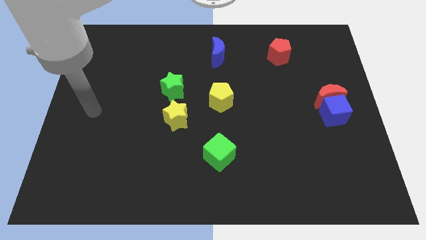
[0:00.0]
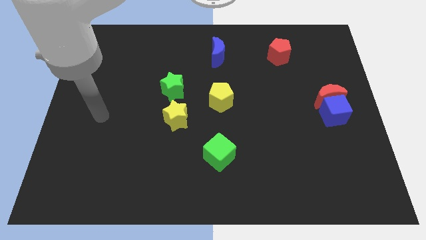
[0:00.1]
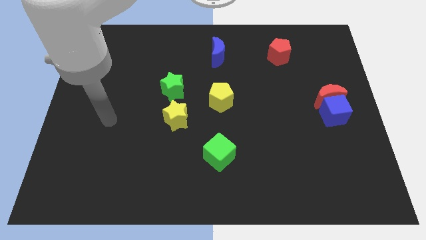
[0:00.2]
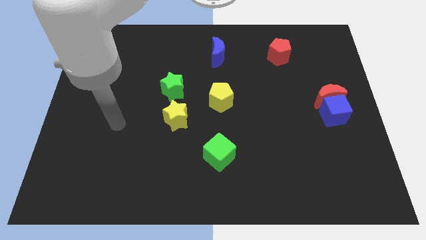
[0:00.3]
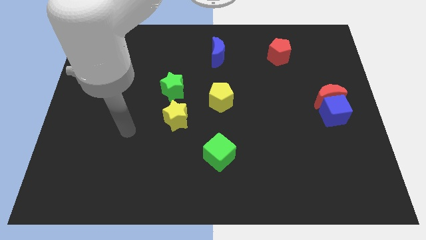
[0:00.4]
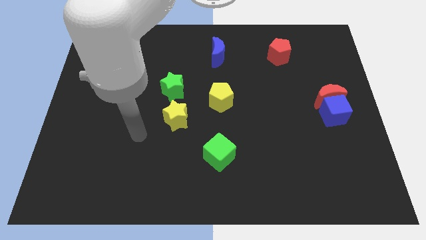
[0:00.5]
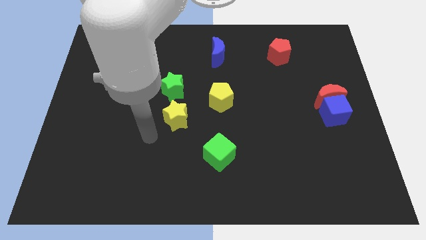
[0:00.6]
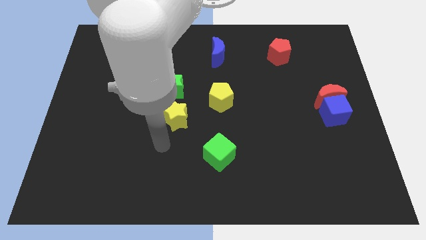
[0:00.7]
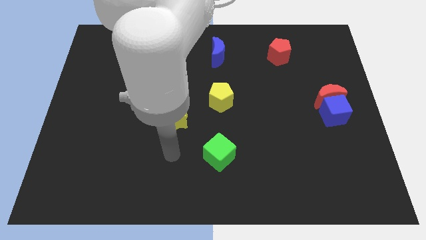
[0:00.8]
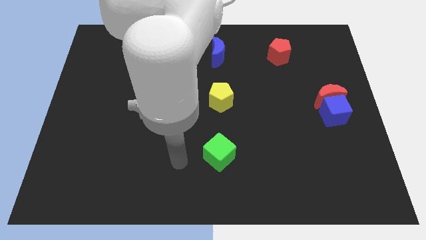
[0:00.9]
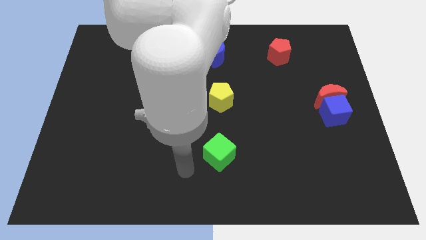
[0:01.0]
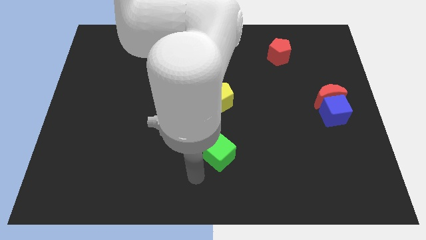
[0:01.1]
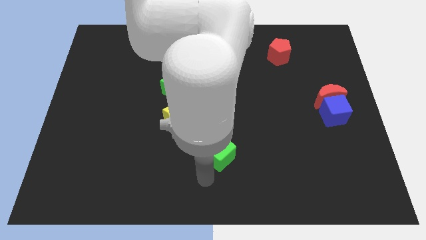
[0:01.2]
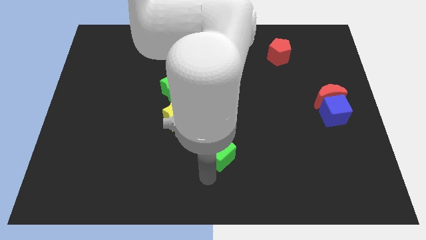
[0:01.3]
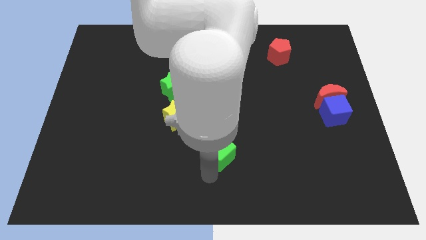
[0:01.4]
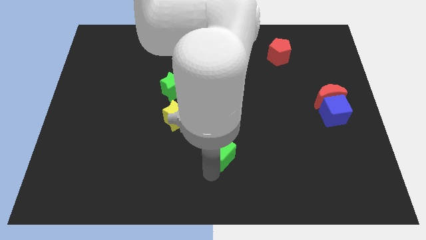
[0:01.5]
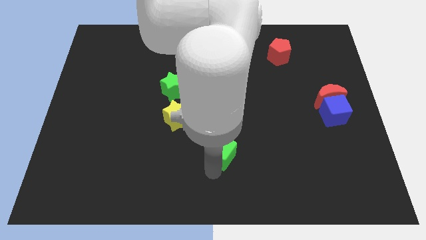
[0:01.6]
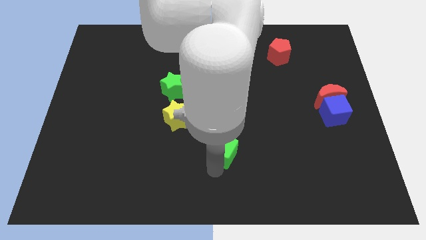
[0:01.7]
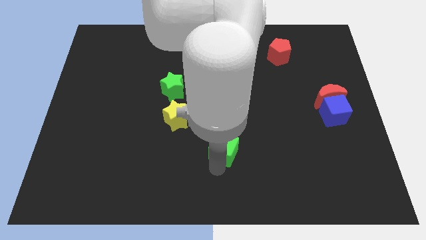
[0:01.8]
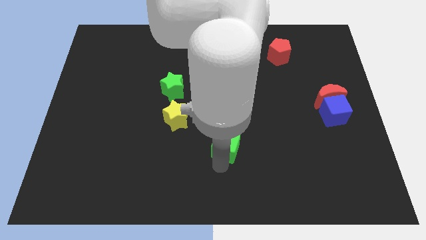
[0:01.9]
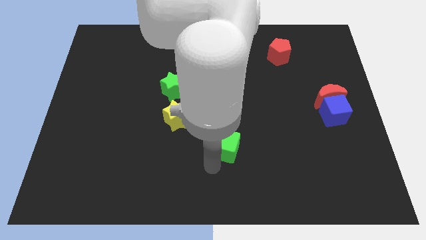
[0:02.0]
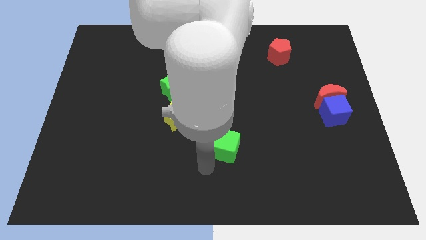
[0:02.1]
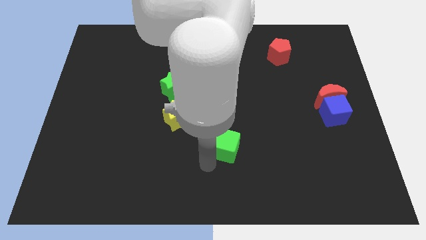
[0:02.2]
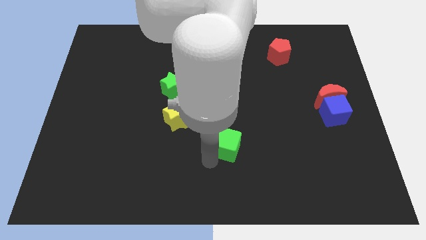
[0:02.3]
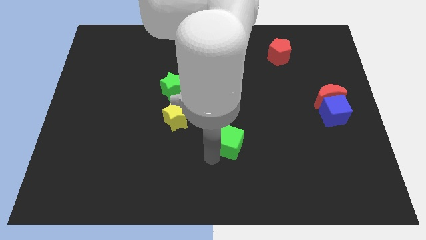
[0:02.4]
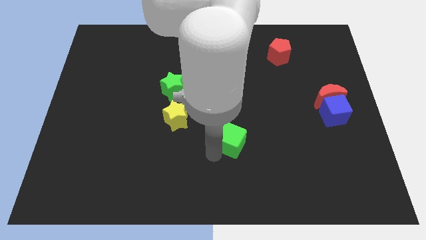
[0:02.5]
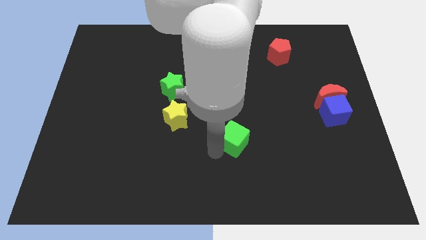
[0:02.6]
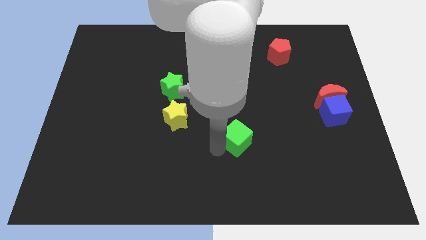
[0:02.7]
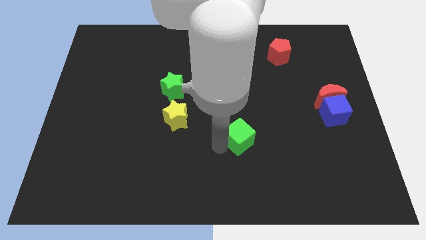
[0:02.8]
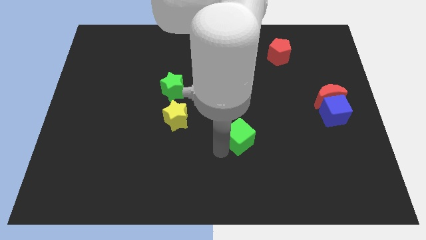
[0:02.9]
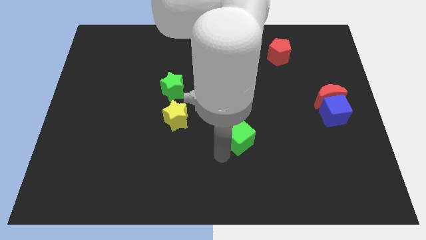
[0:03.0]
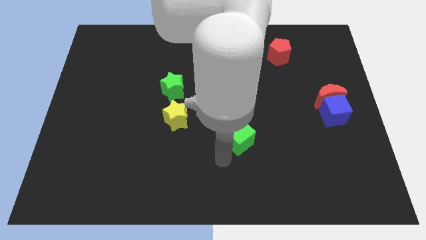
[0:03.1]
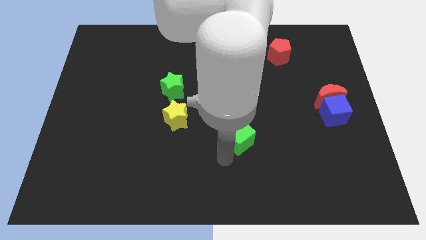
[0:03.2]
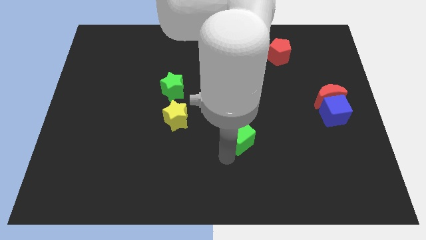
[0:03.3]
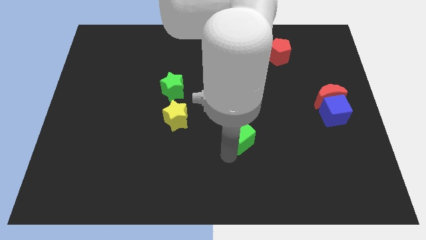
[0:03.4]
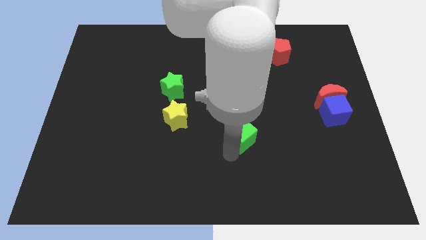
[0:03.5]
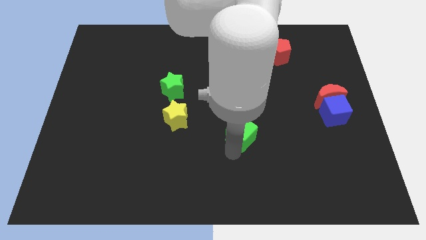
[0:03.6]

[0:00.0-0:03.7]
slide the green cube diagonally upwards and right slightly

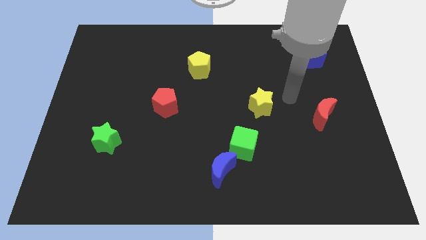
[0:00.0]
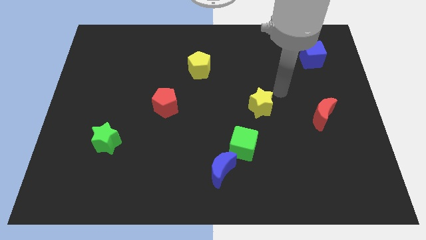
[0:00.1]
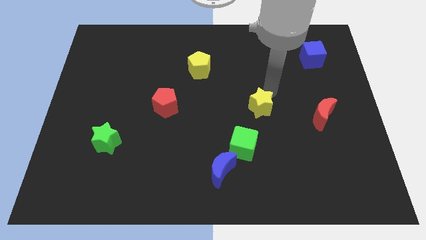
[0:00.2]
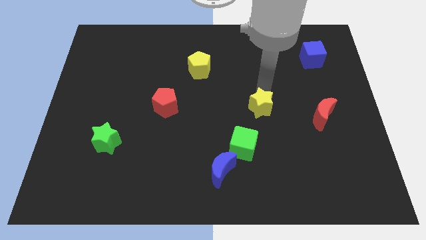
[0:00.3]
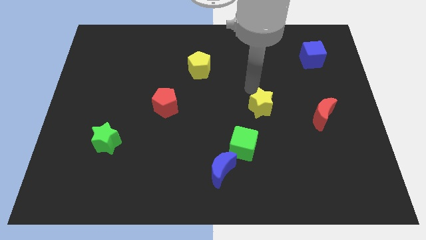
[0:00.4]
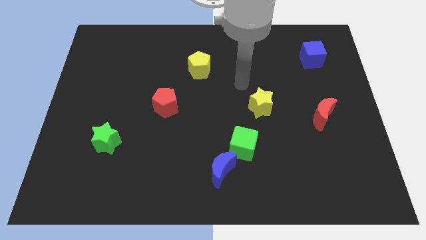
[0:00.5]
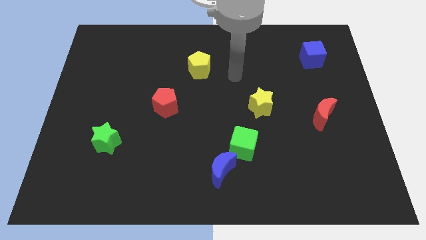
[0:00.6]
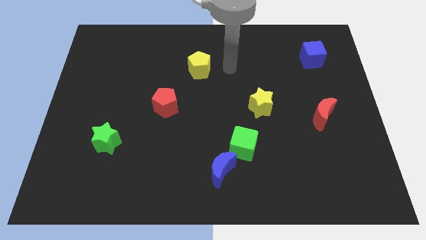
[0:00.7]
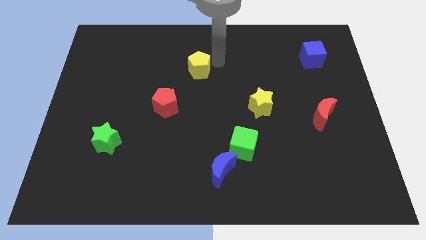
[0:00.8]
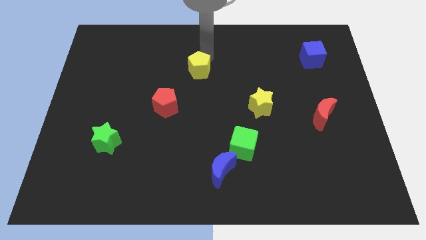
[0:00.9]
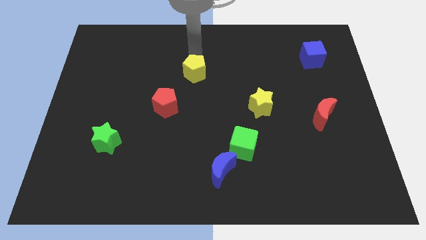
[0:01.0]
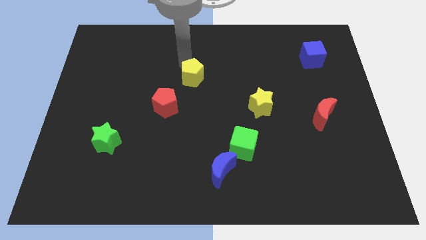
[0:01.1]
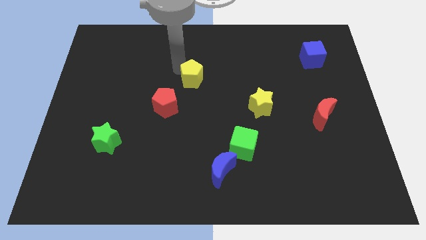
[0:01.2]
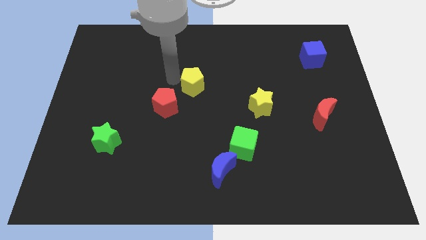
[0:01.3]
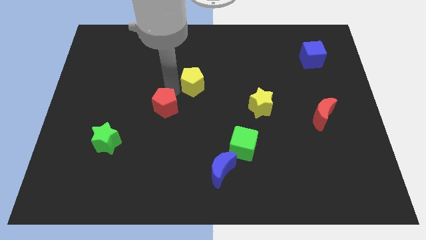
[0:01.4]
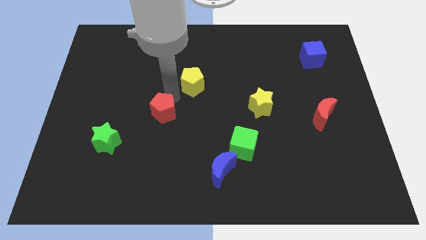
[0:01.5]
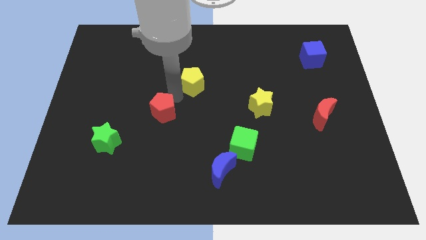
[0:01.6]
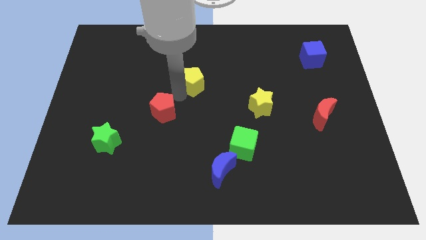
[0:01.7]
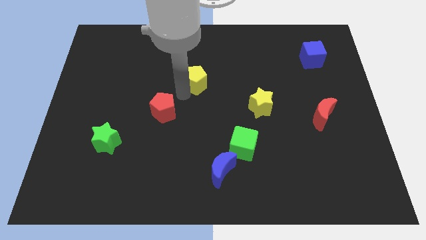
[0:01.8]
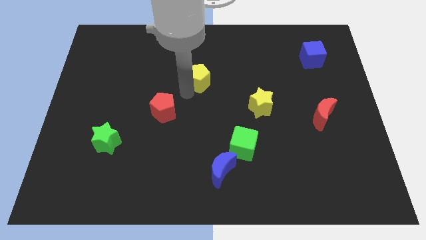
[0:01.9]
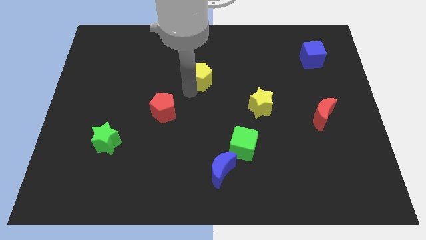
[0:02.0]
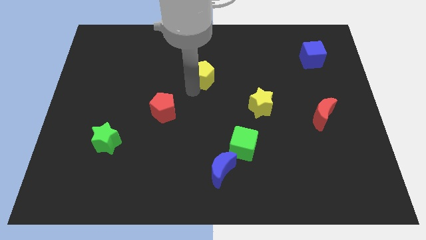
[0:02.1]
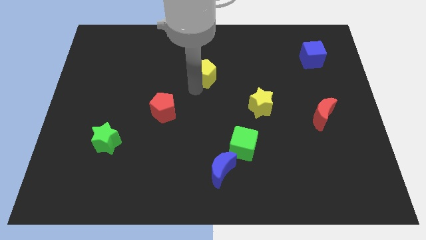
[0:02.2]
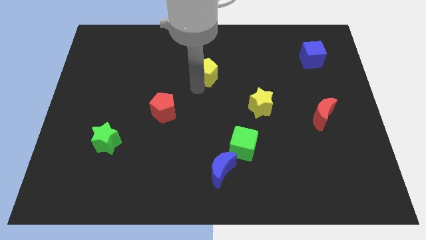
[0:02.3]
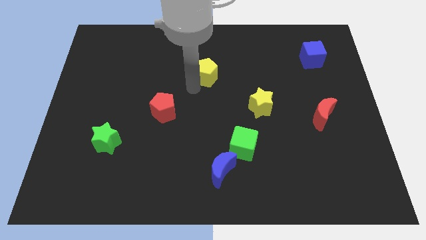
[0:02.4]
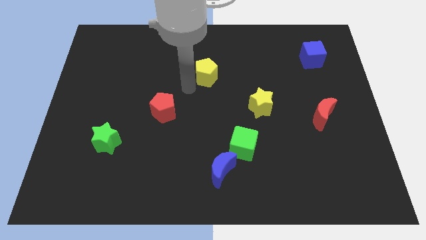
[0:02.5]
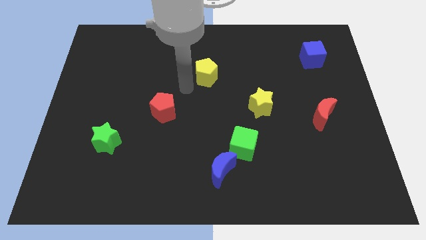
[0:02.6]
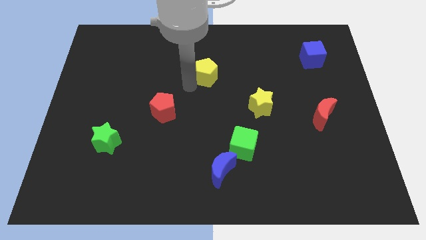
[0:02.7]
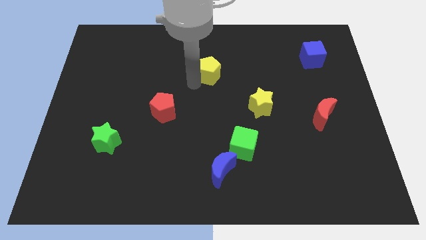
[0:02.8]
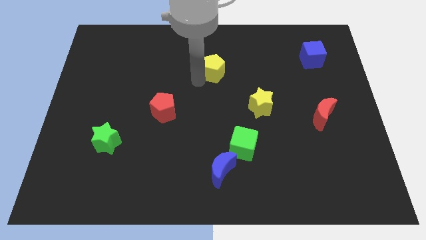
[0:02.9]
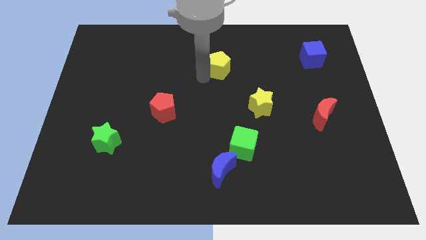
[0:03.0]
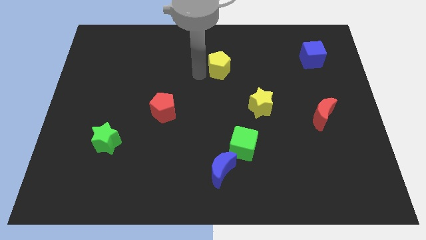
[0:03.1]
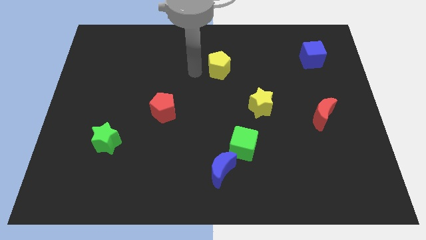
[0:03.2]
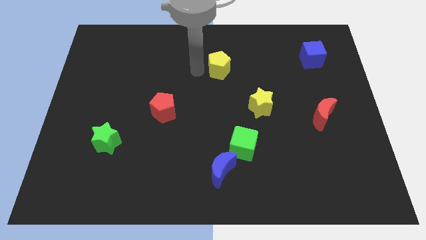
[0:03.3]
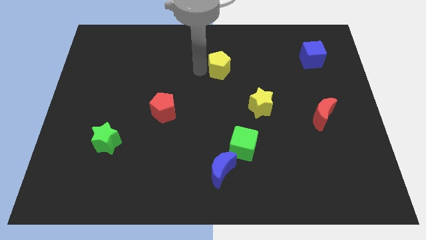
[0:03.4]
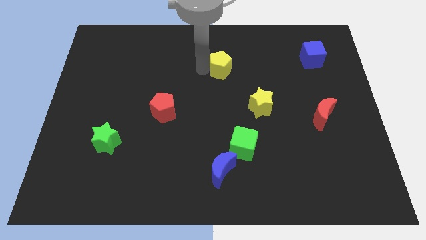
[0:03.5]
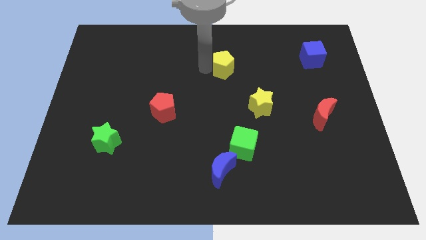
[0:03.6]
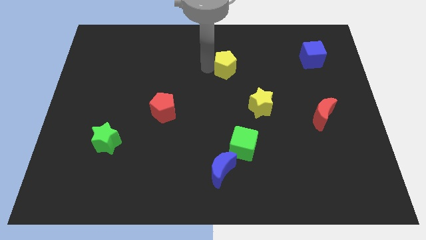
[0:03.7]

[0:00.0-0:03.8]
slightly push the yellow pentagon to the right

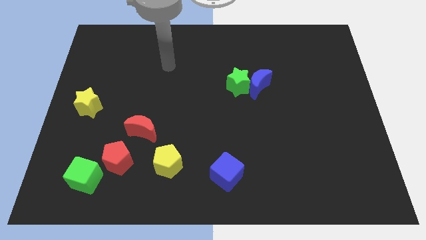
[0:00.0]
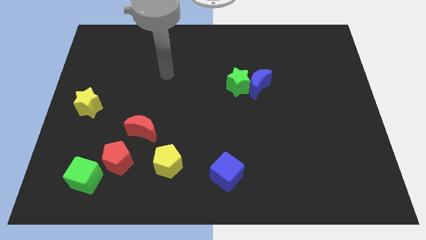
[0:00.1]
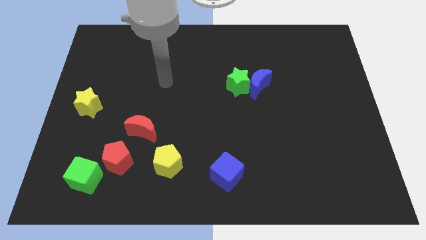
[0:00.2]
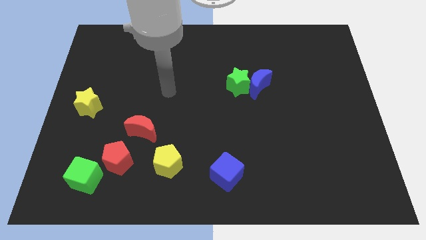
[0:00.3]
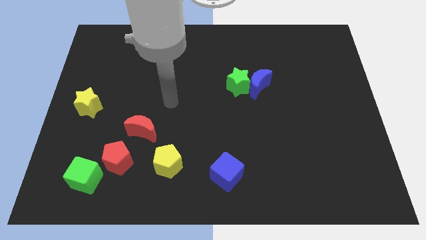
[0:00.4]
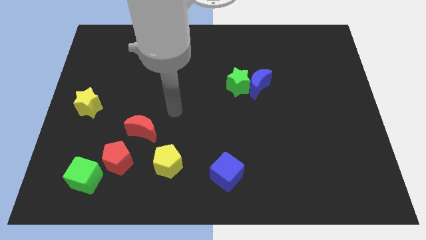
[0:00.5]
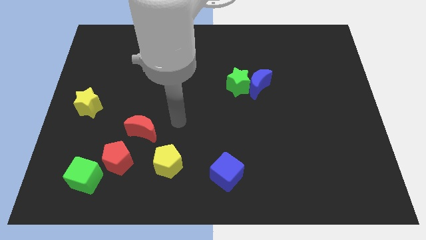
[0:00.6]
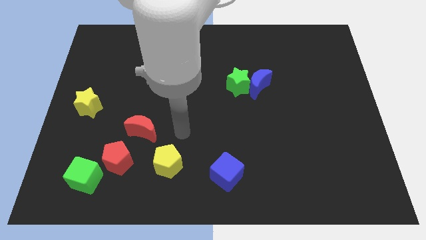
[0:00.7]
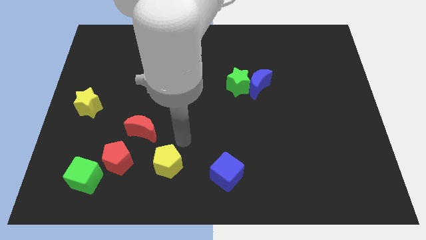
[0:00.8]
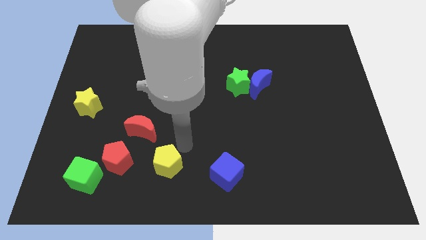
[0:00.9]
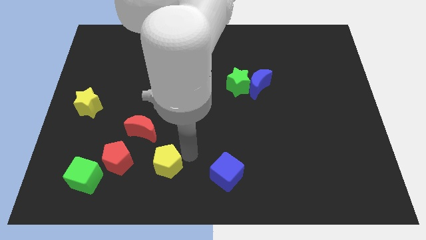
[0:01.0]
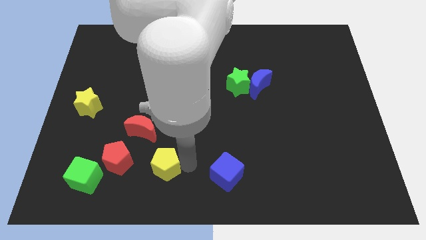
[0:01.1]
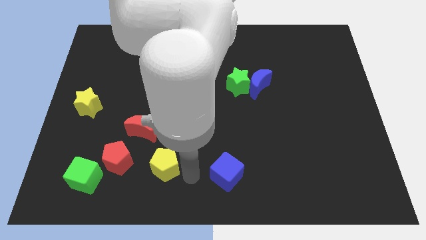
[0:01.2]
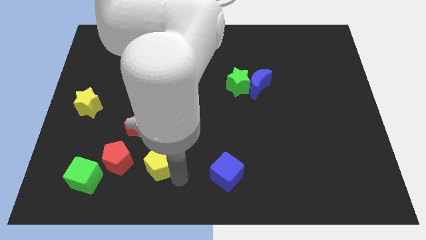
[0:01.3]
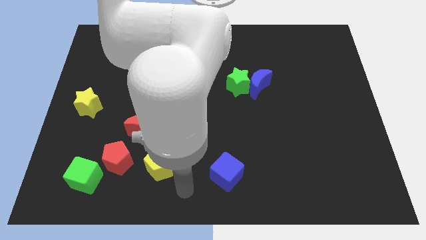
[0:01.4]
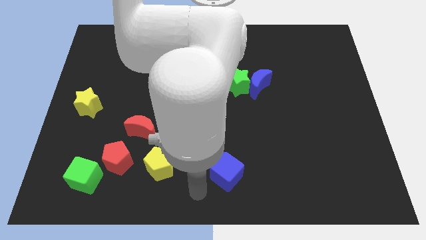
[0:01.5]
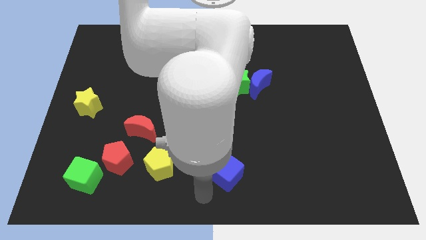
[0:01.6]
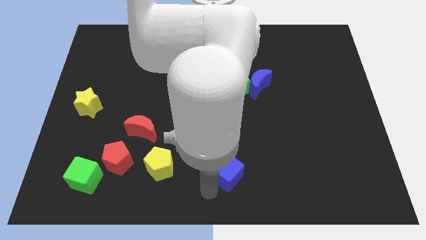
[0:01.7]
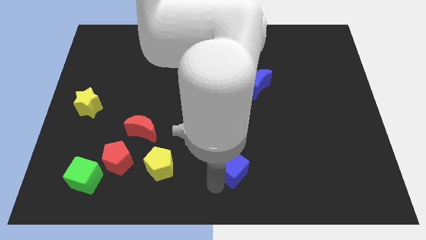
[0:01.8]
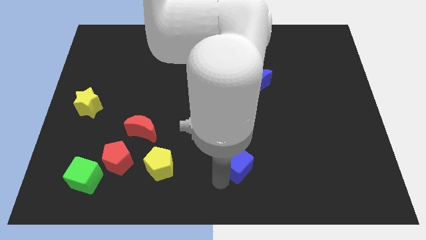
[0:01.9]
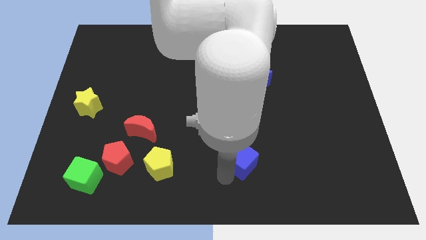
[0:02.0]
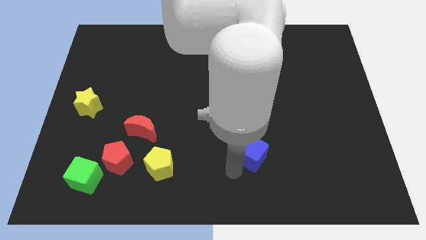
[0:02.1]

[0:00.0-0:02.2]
slightly push the blue cube upwards and then to the right
